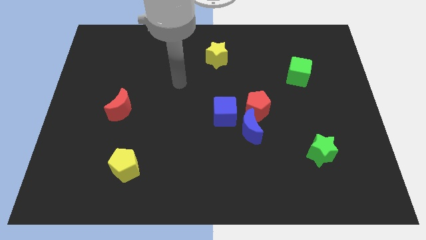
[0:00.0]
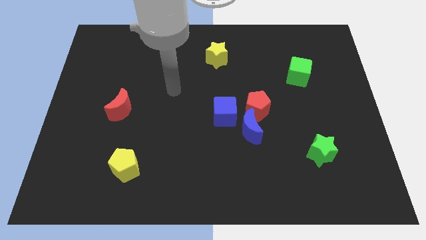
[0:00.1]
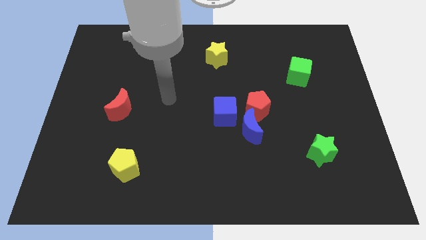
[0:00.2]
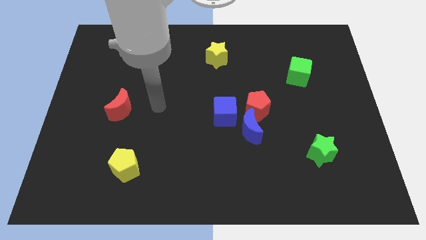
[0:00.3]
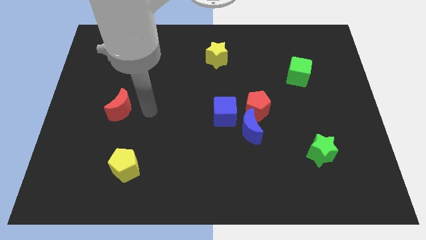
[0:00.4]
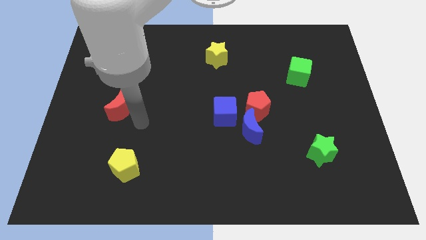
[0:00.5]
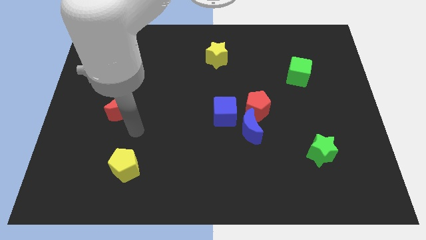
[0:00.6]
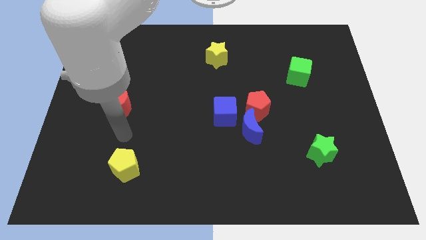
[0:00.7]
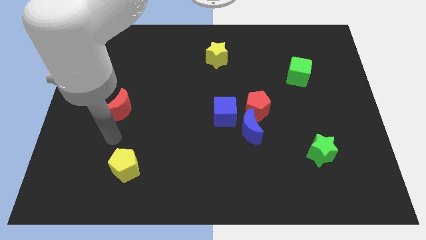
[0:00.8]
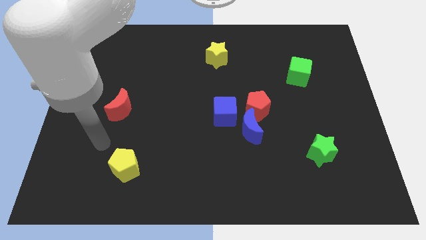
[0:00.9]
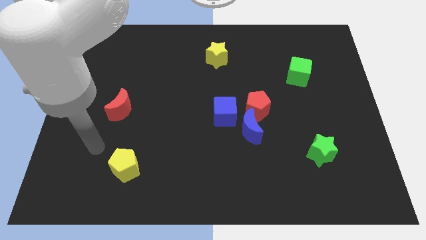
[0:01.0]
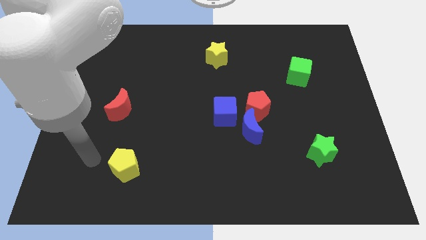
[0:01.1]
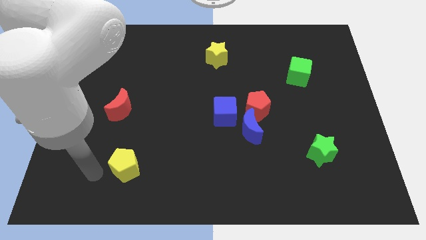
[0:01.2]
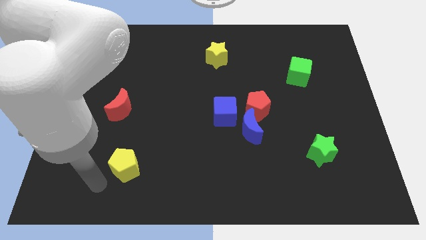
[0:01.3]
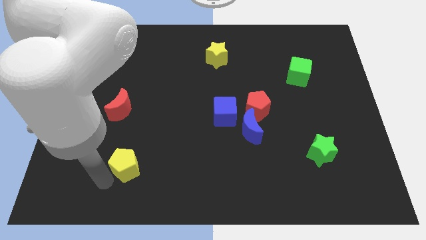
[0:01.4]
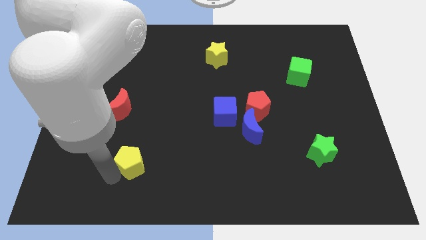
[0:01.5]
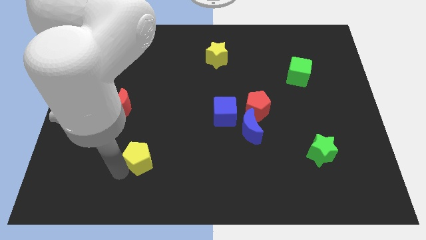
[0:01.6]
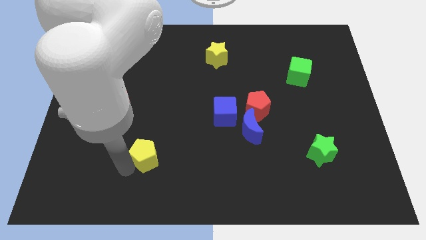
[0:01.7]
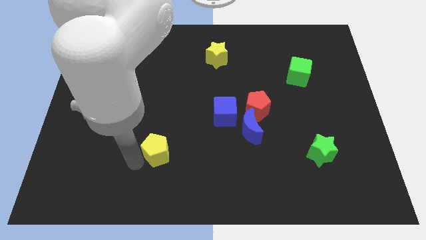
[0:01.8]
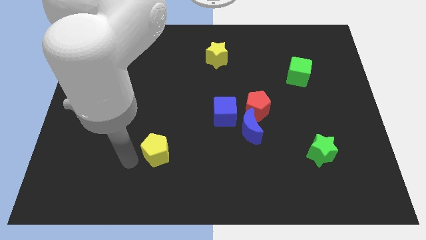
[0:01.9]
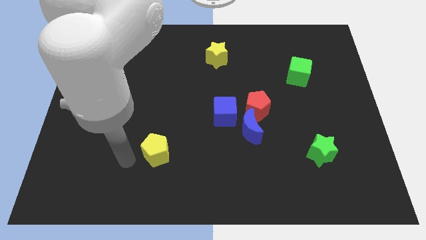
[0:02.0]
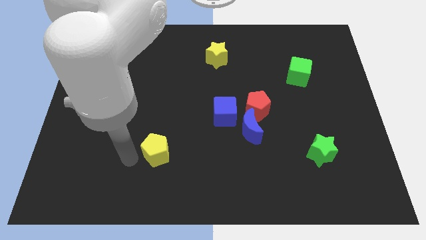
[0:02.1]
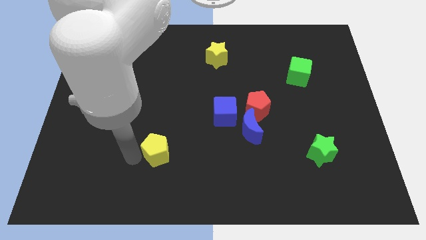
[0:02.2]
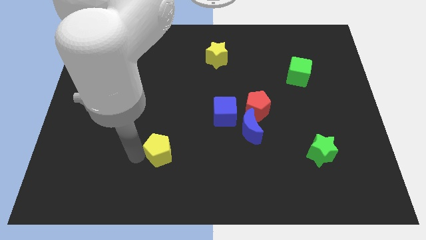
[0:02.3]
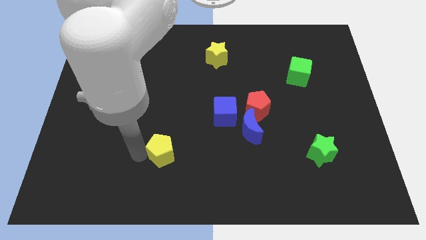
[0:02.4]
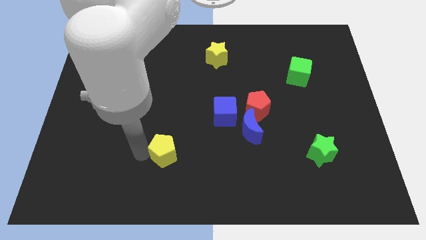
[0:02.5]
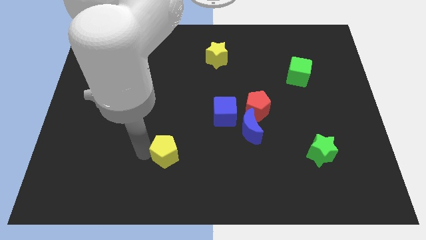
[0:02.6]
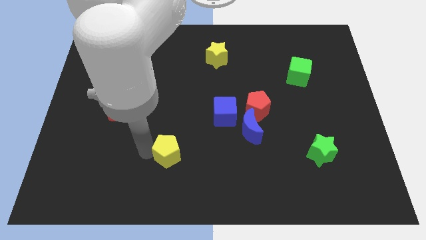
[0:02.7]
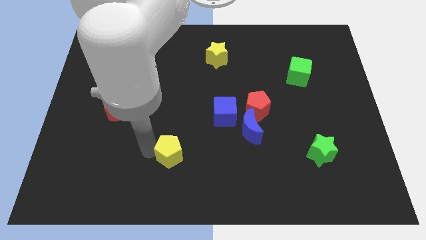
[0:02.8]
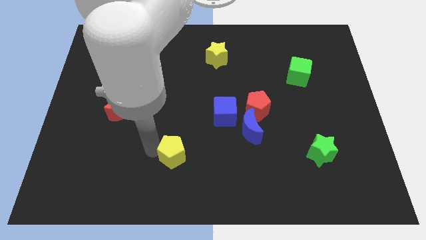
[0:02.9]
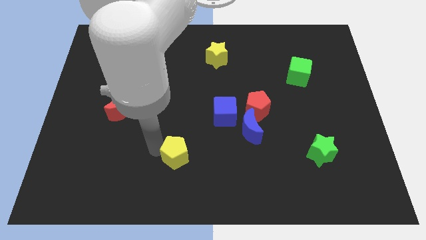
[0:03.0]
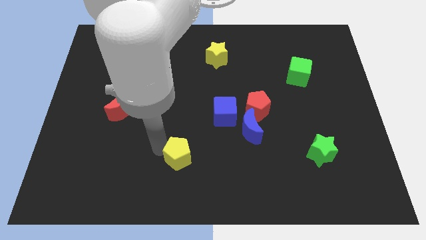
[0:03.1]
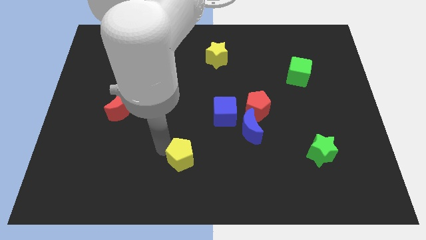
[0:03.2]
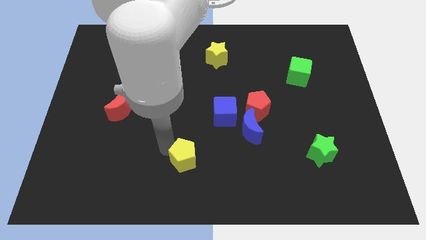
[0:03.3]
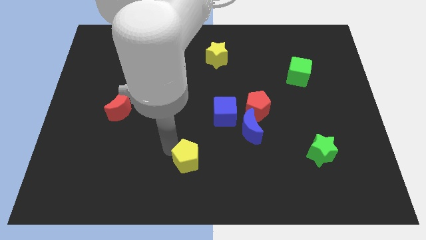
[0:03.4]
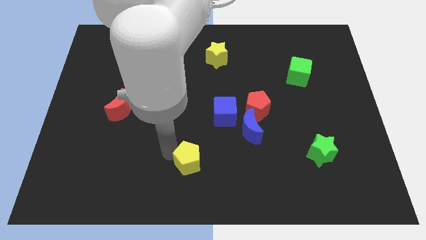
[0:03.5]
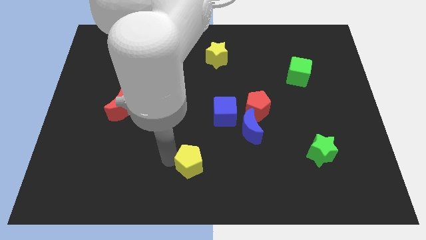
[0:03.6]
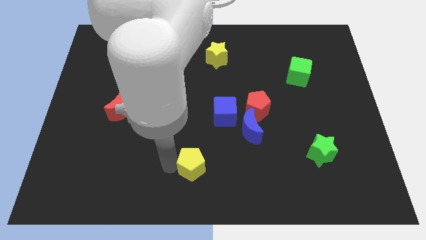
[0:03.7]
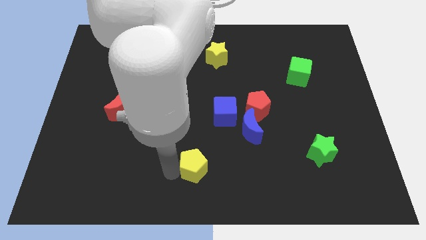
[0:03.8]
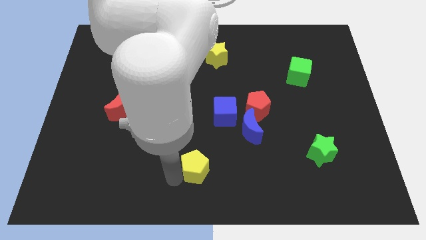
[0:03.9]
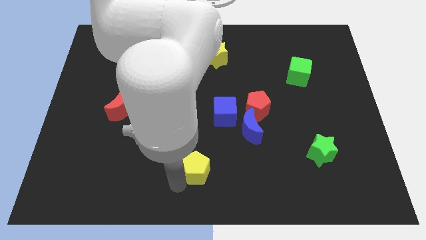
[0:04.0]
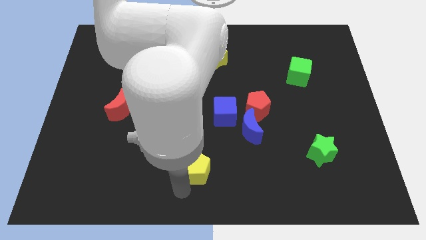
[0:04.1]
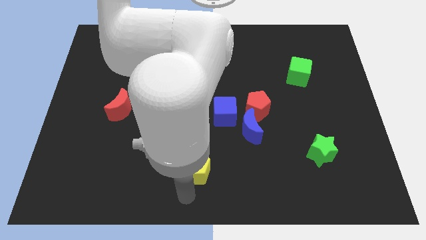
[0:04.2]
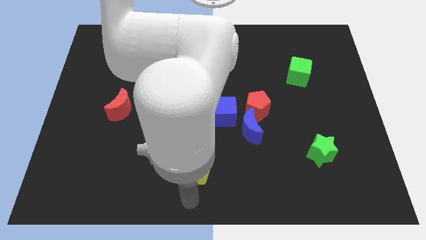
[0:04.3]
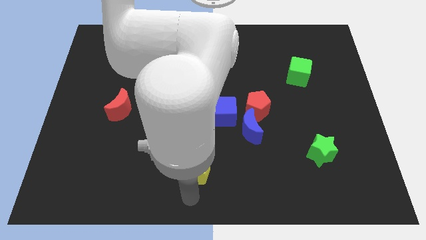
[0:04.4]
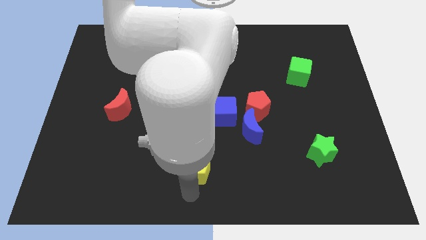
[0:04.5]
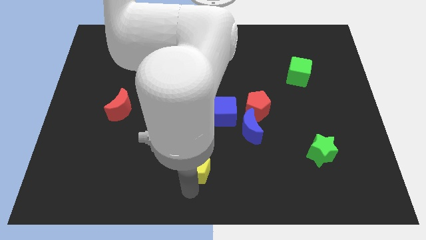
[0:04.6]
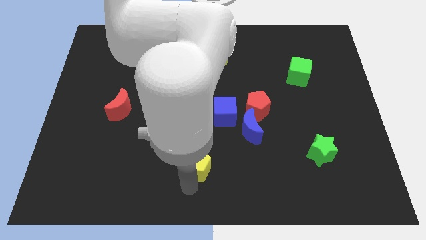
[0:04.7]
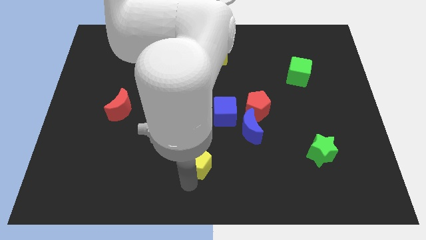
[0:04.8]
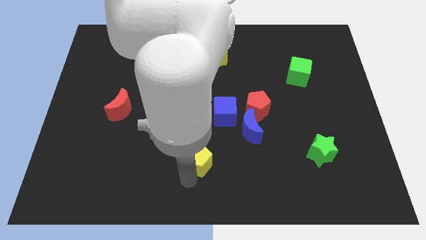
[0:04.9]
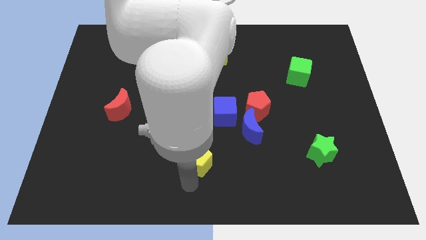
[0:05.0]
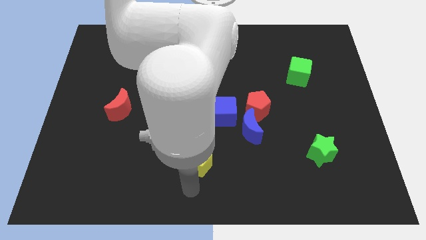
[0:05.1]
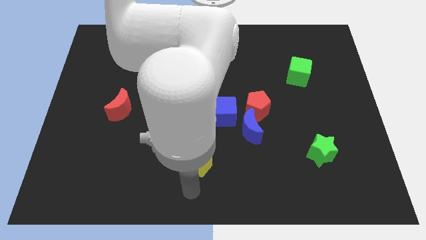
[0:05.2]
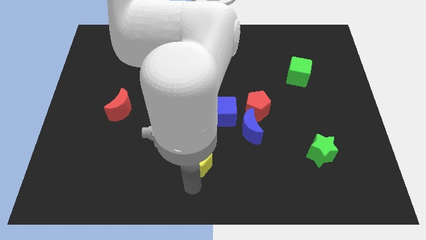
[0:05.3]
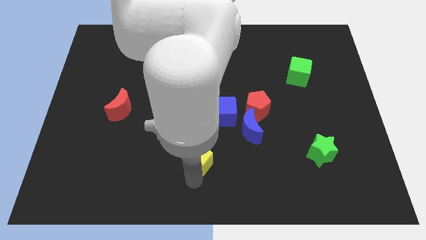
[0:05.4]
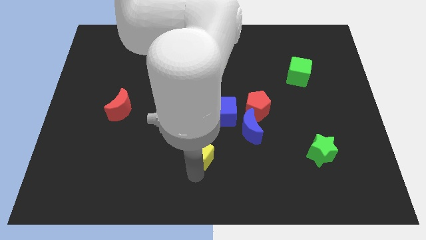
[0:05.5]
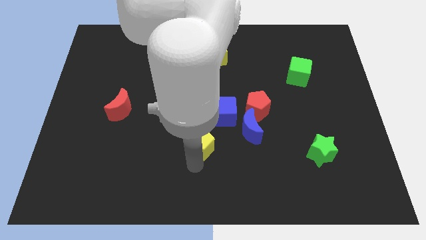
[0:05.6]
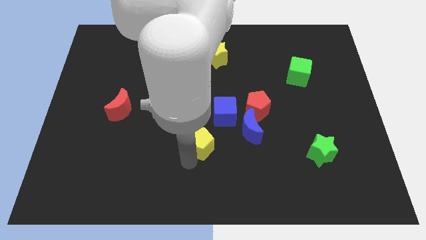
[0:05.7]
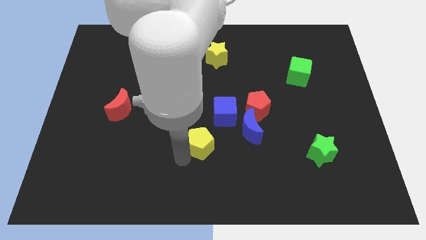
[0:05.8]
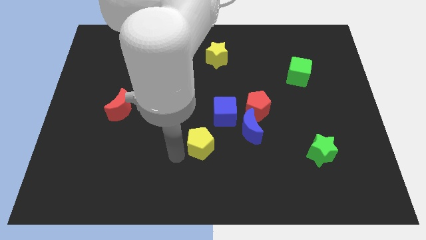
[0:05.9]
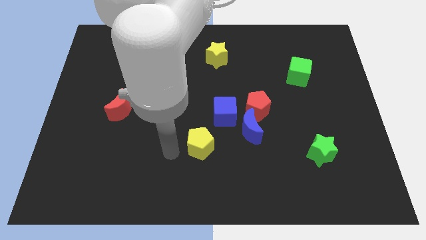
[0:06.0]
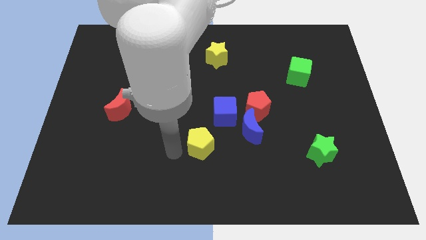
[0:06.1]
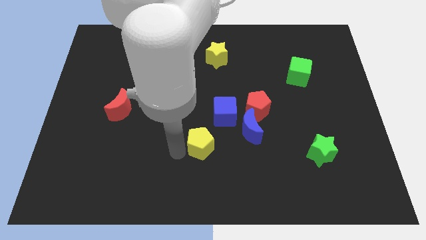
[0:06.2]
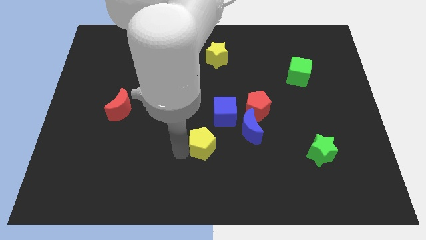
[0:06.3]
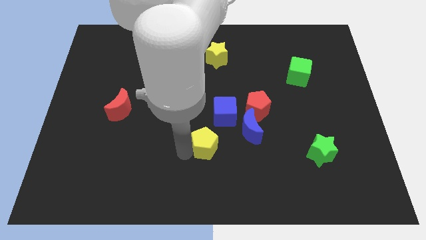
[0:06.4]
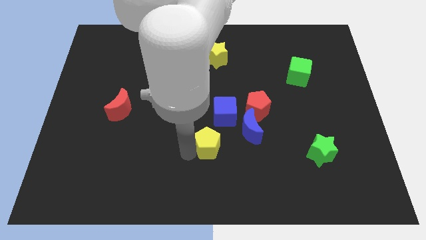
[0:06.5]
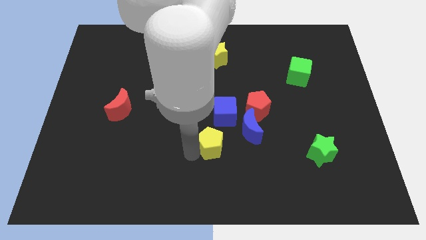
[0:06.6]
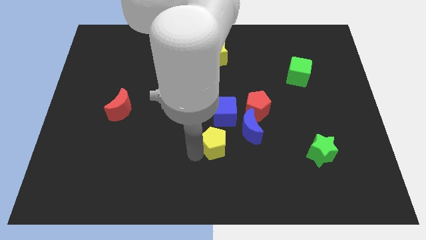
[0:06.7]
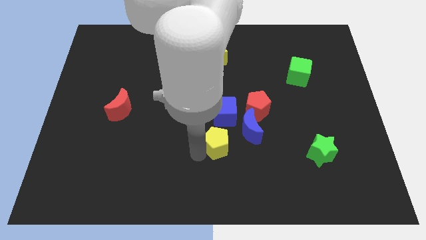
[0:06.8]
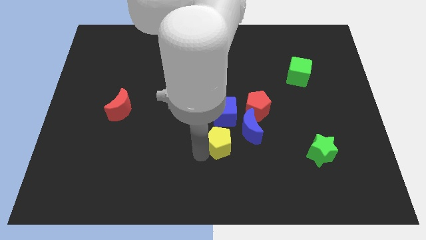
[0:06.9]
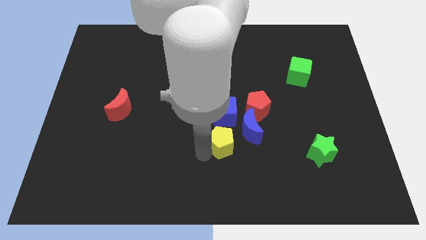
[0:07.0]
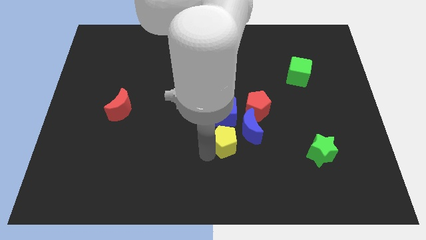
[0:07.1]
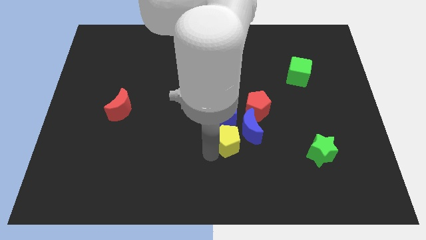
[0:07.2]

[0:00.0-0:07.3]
slide the yellow pentagon towards the blue moon
